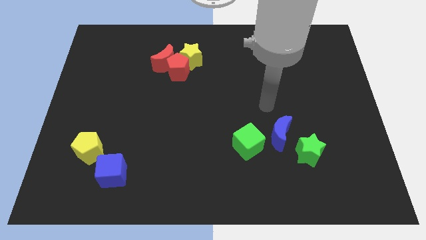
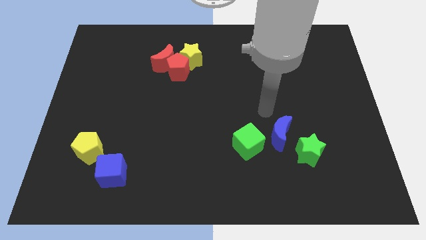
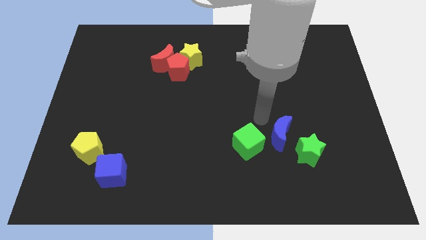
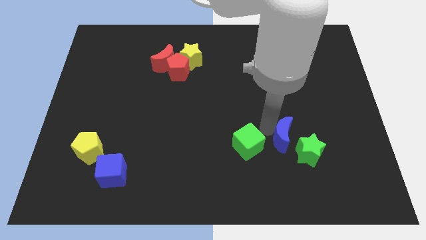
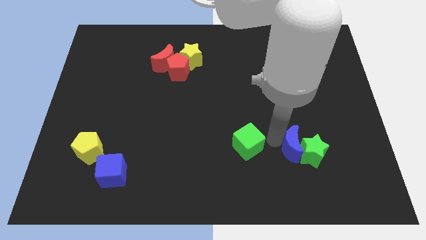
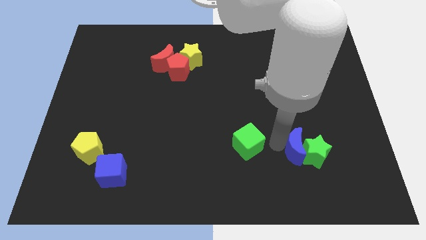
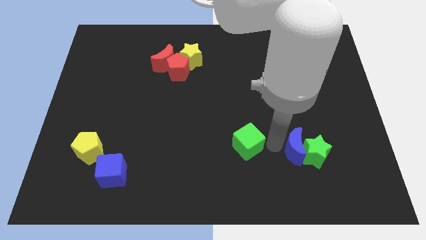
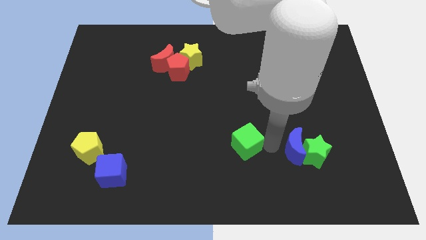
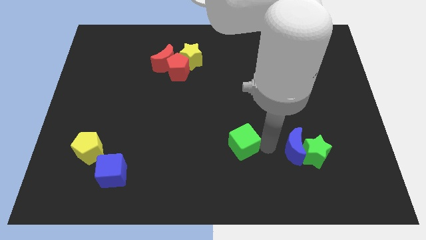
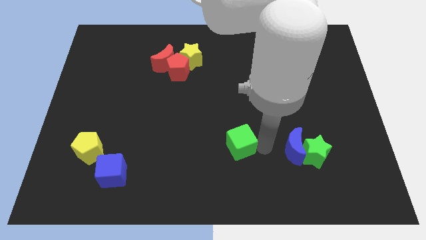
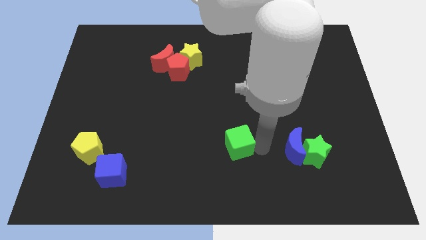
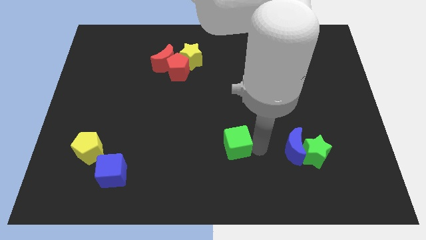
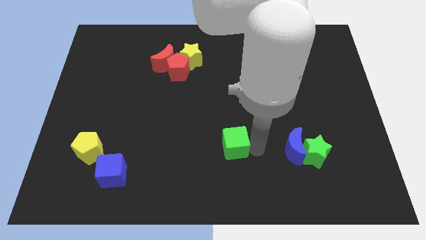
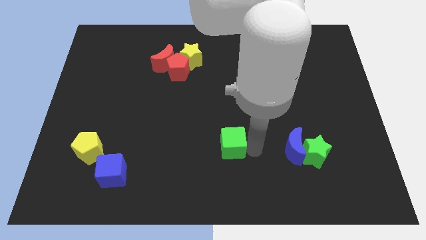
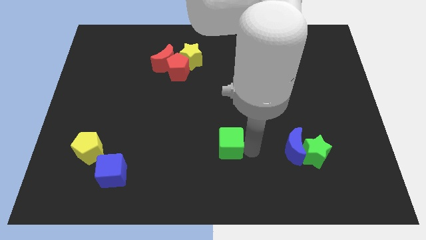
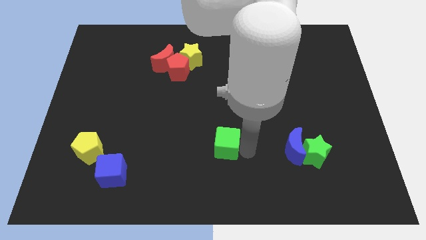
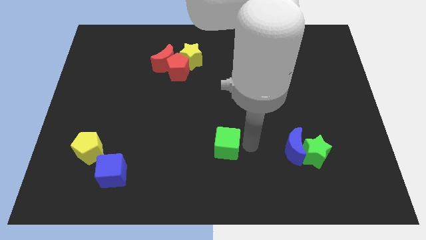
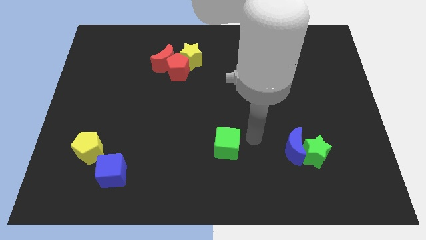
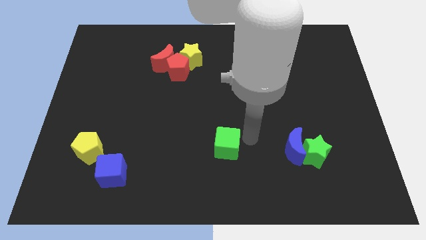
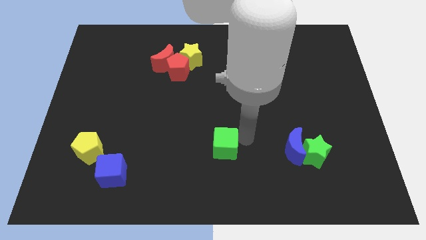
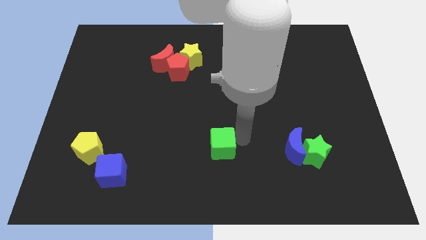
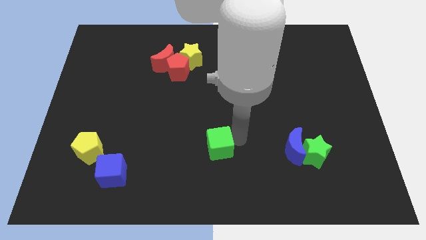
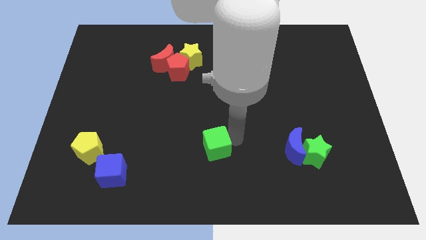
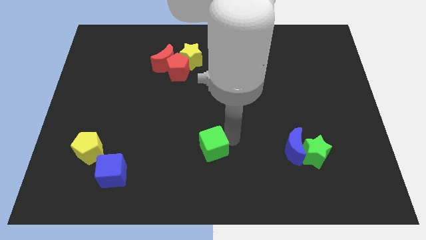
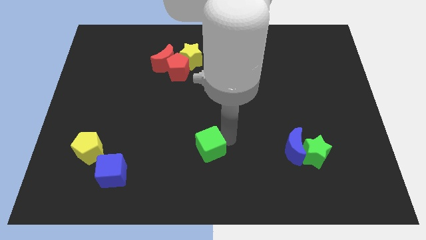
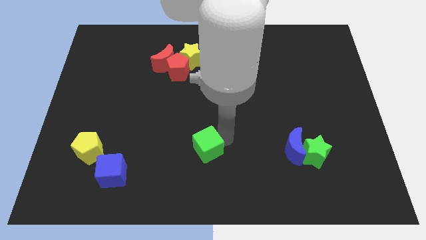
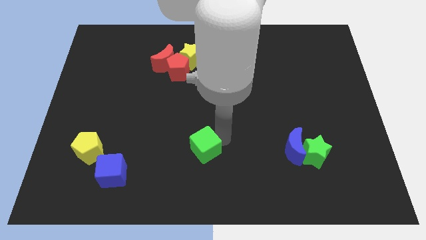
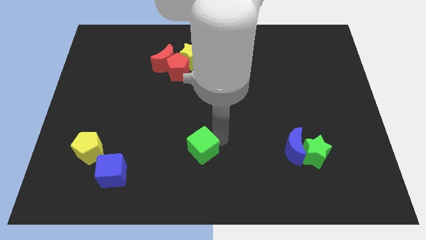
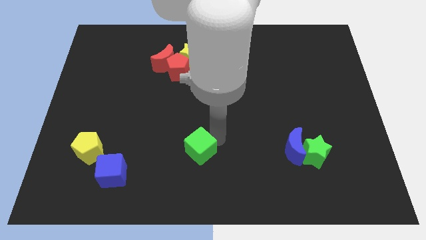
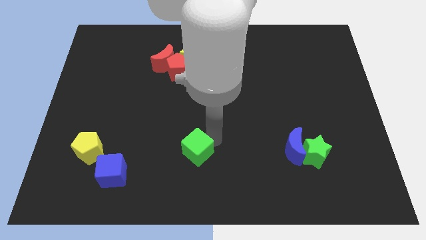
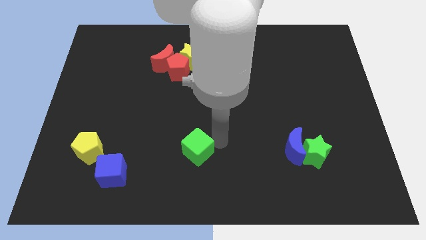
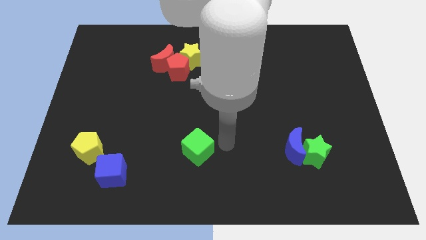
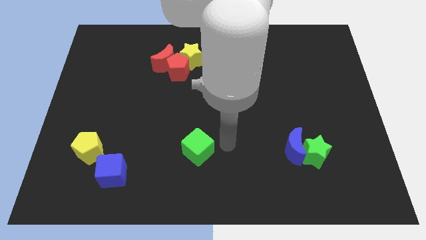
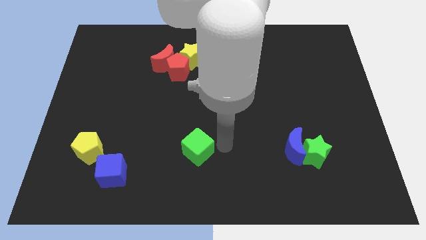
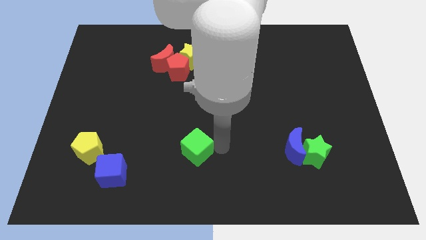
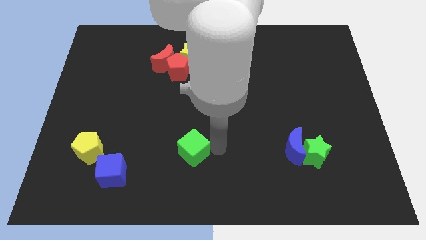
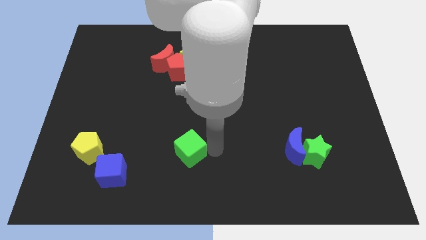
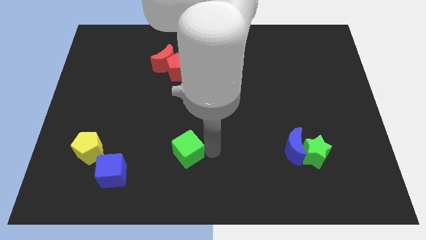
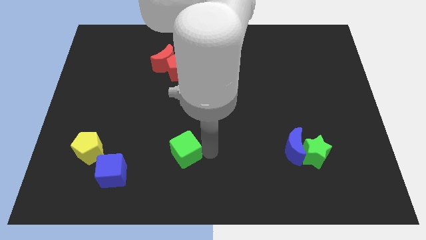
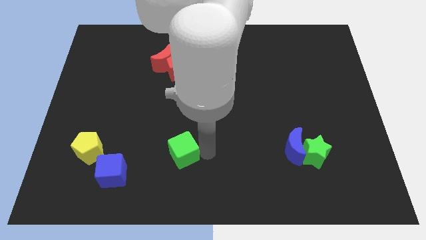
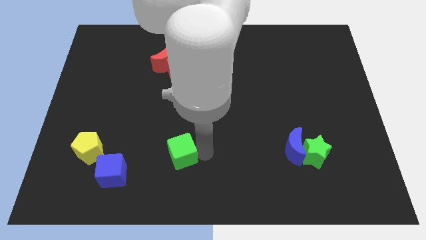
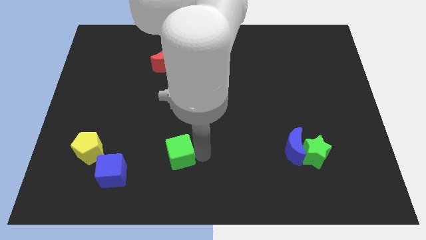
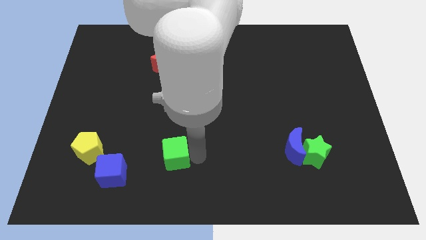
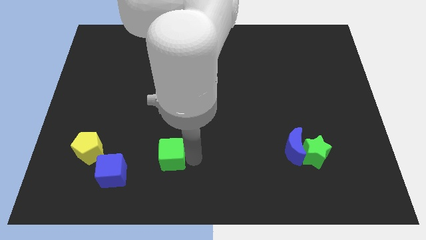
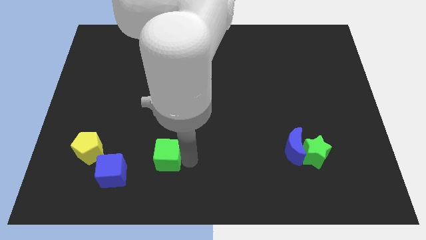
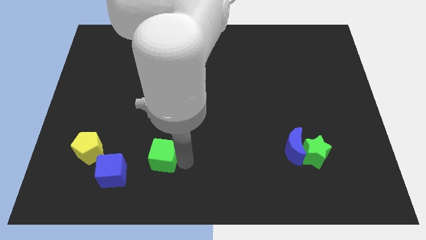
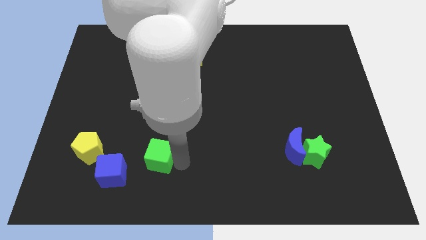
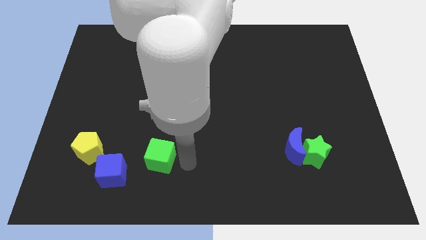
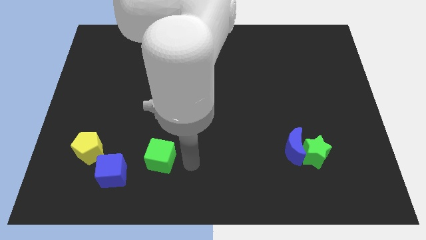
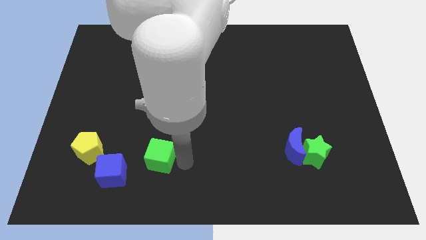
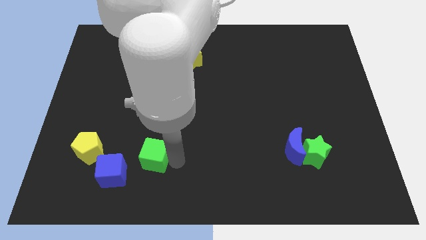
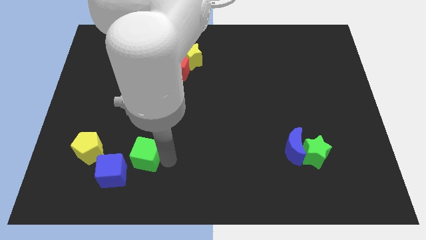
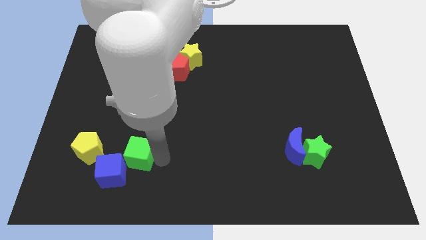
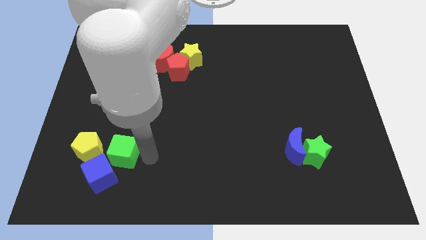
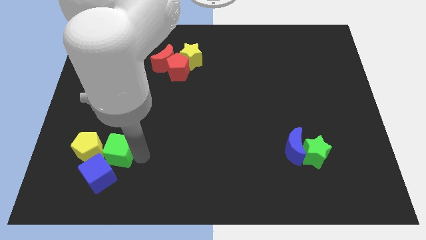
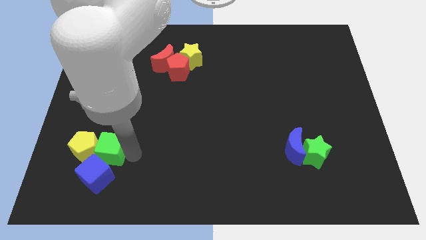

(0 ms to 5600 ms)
slide the green cube towards the yellow pentagon

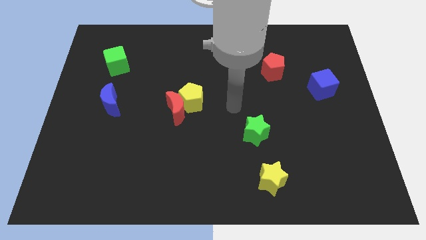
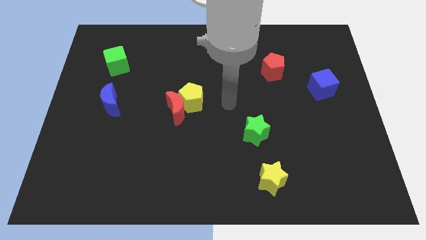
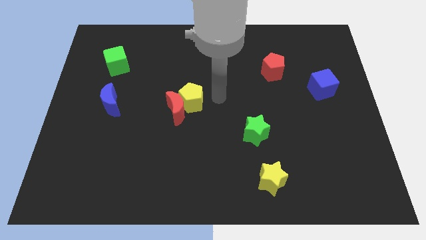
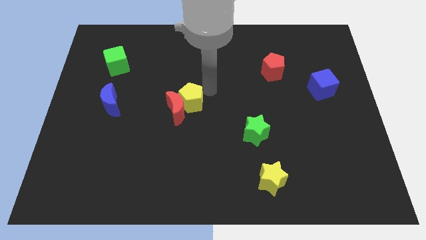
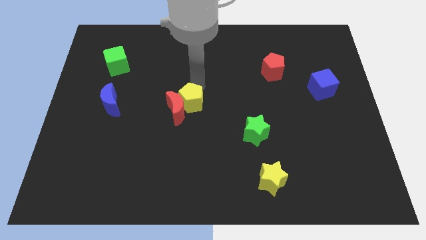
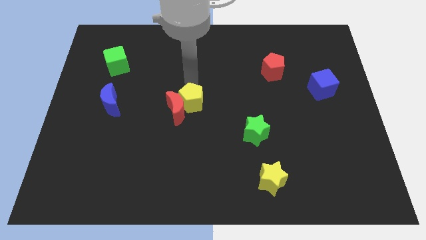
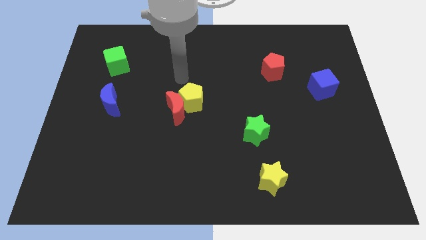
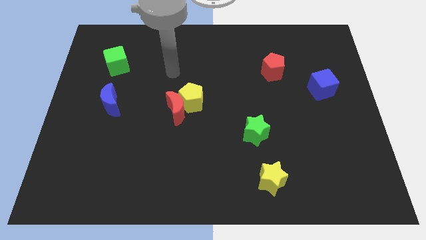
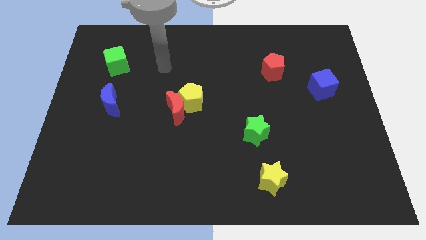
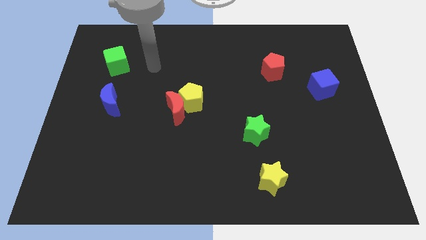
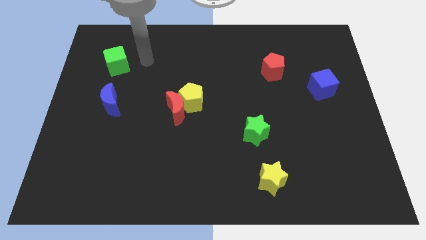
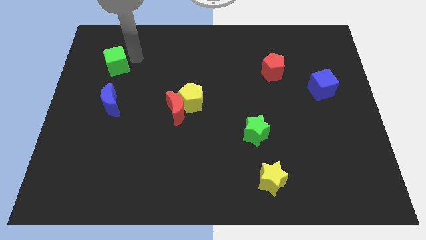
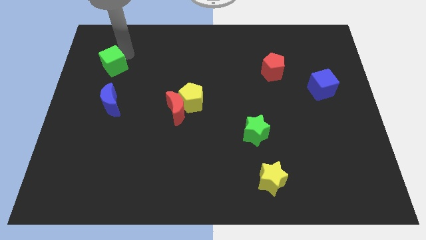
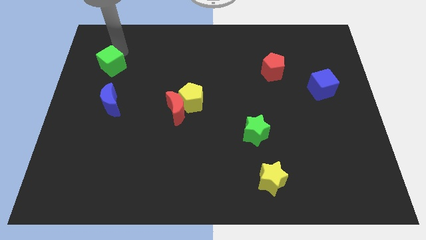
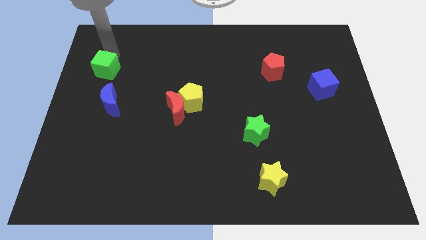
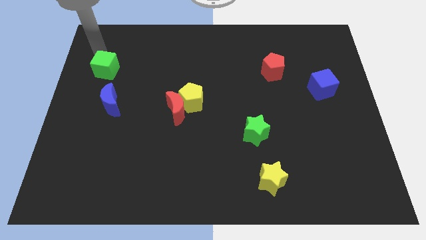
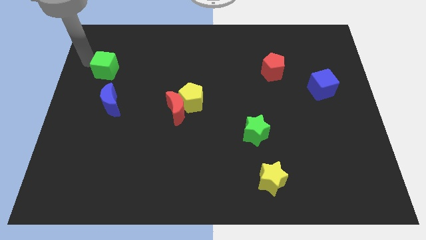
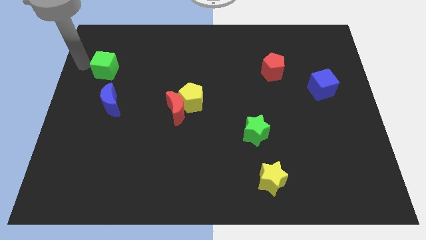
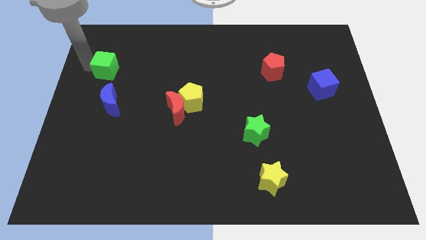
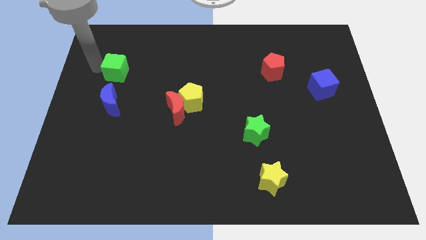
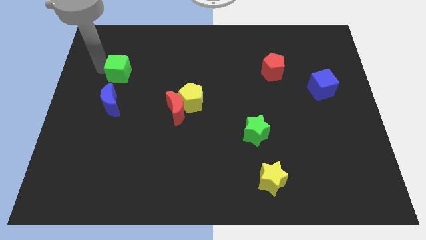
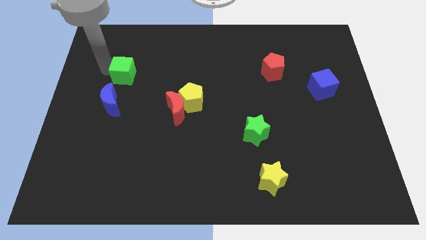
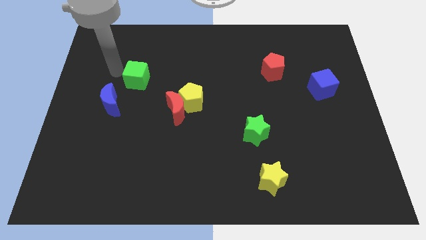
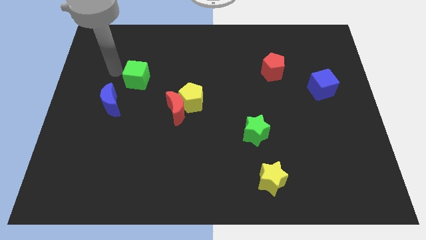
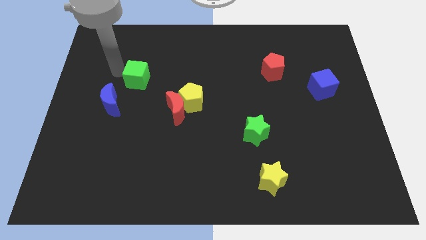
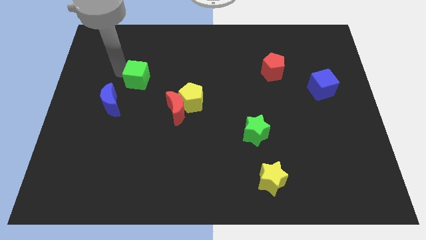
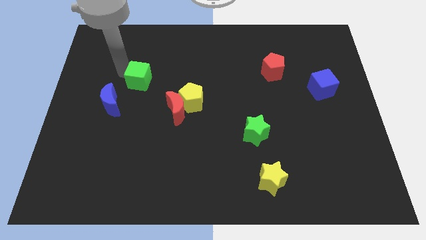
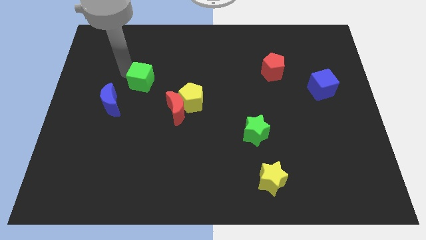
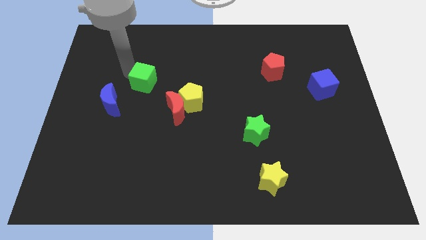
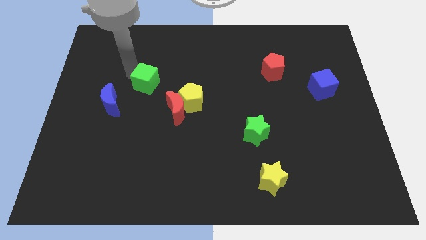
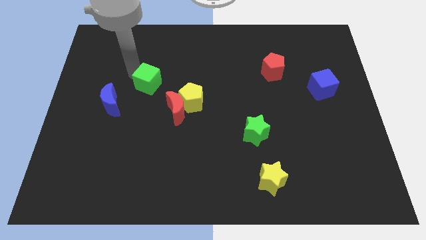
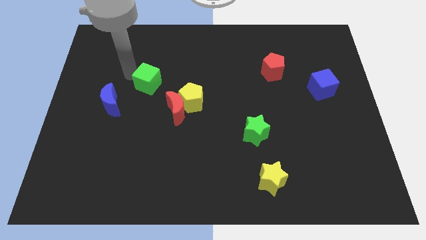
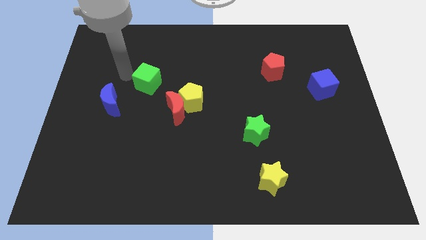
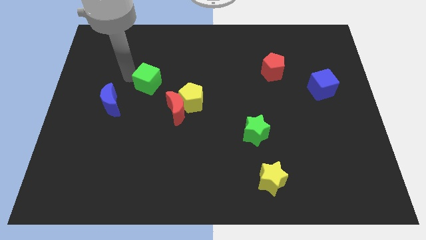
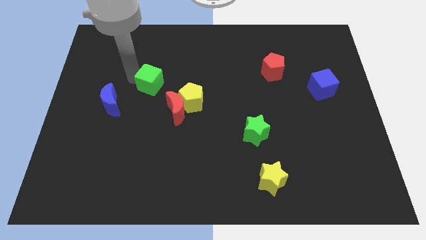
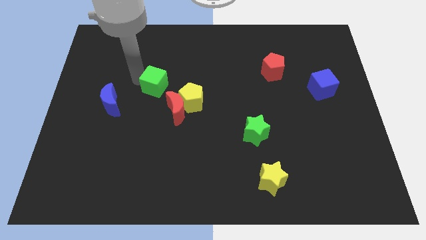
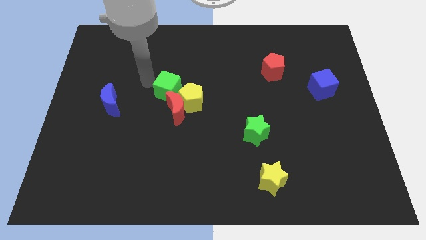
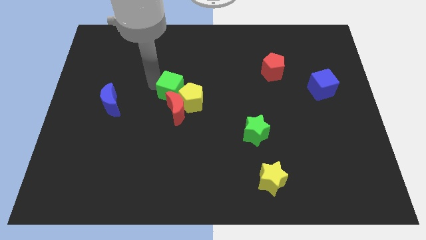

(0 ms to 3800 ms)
move the green cube to the yellow pentagon
